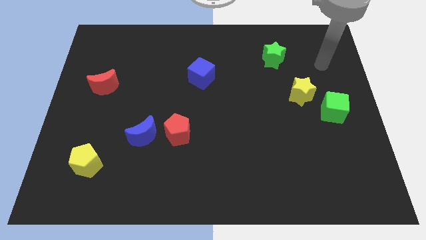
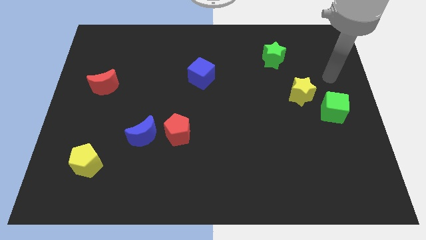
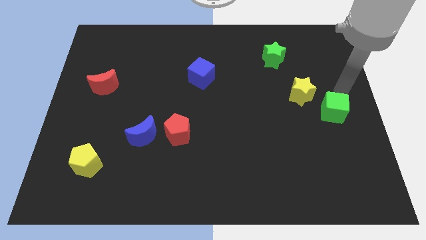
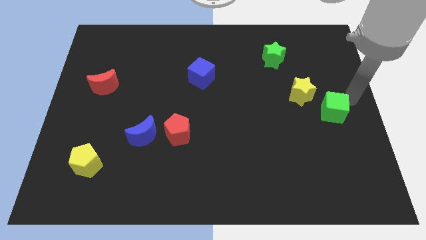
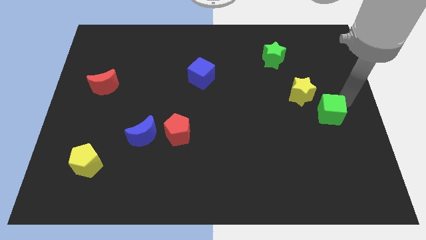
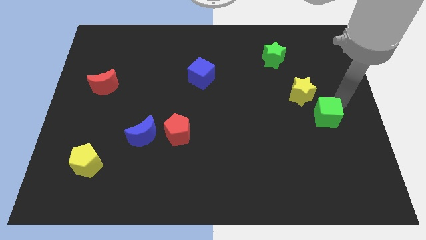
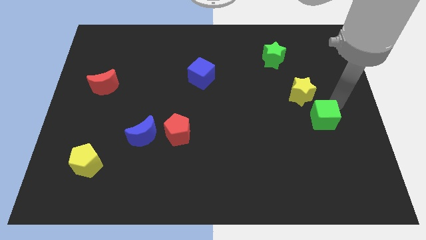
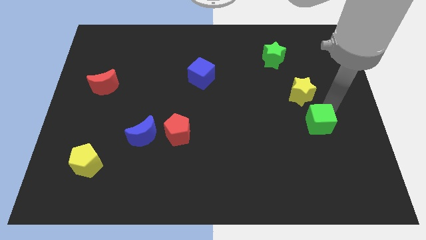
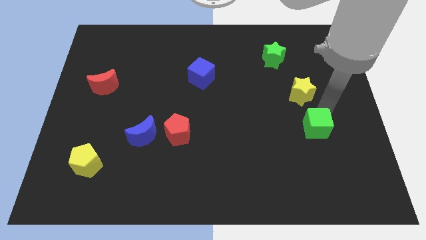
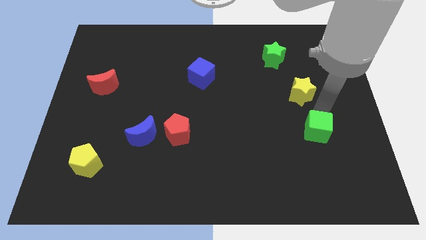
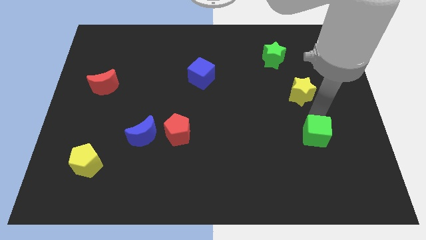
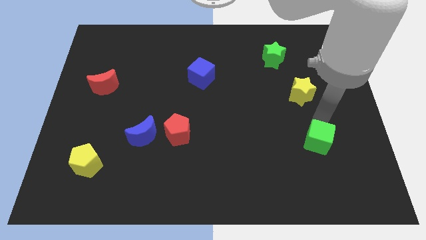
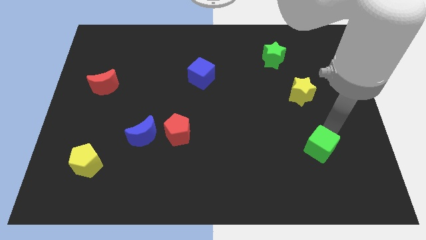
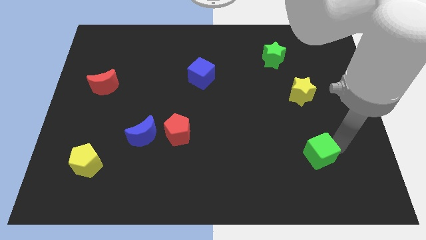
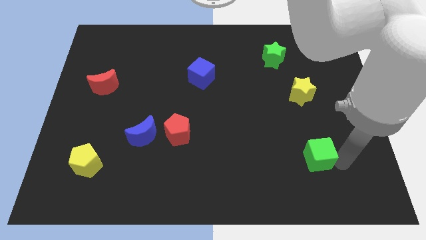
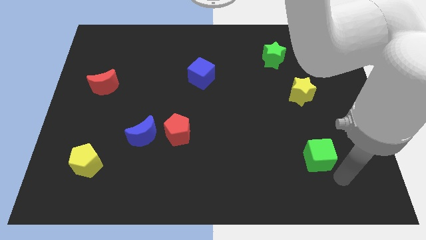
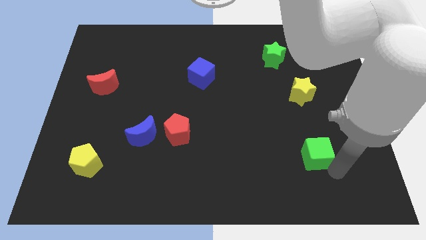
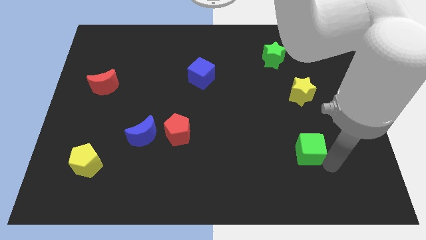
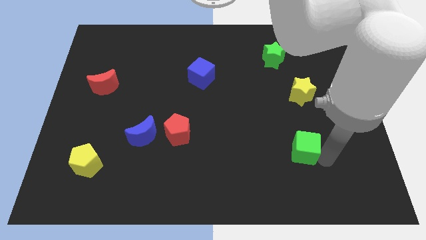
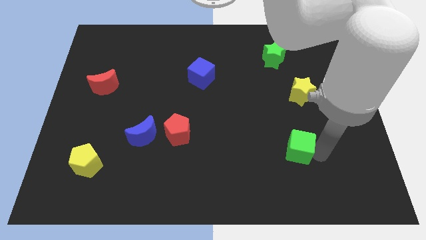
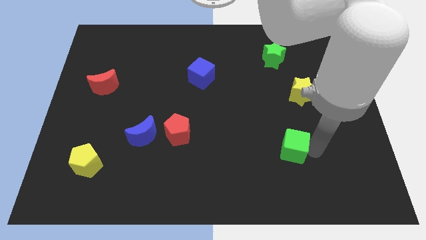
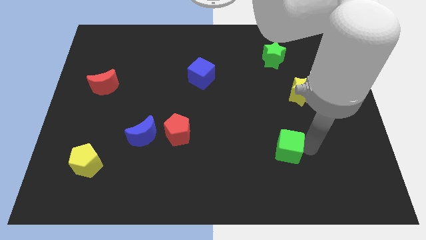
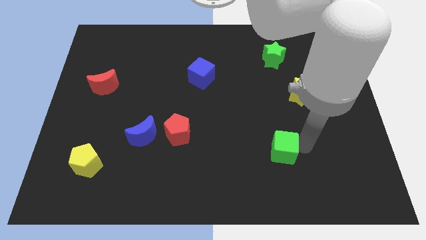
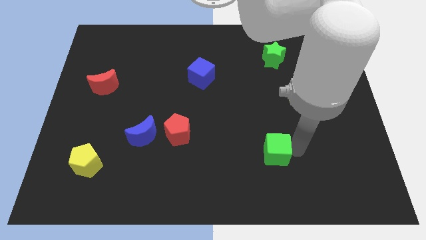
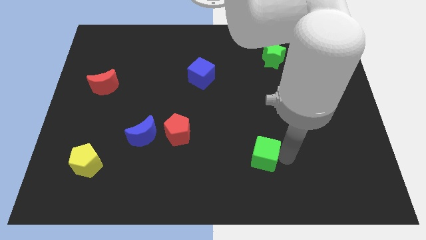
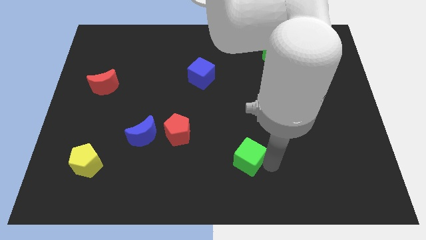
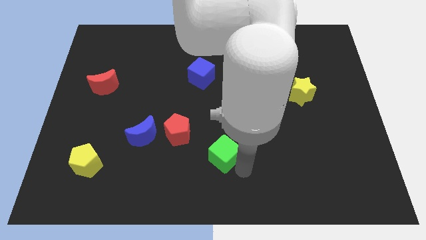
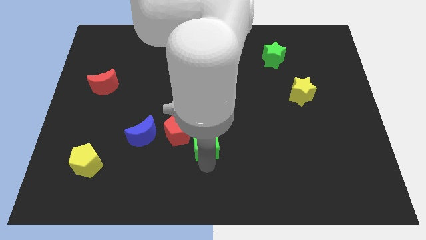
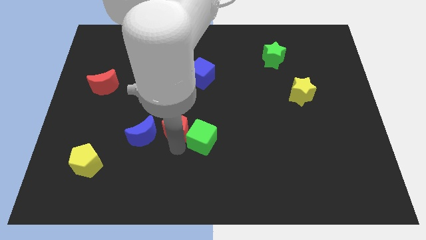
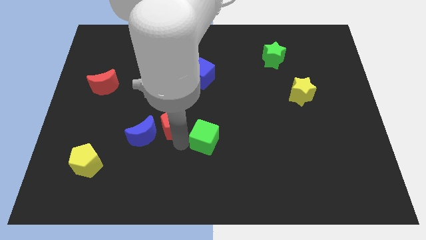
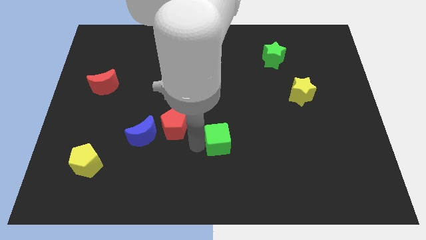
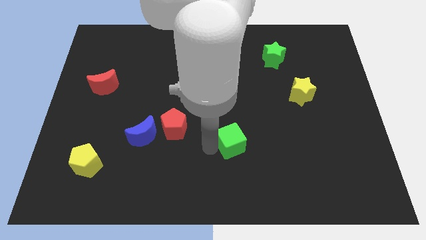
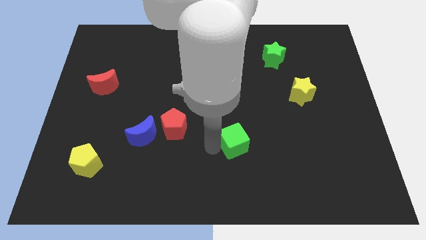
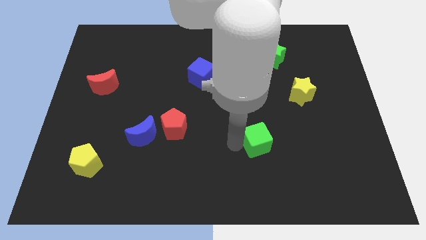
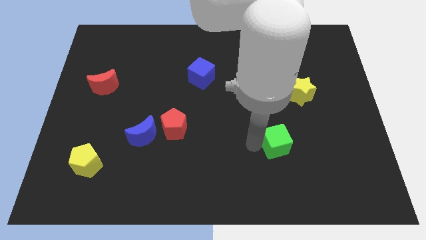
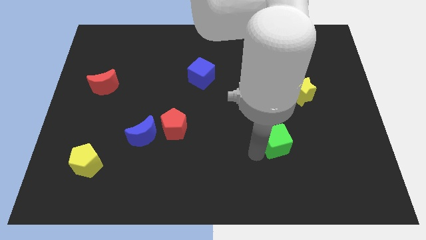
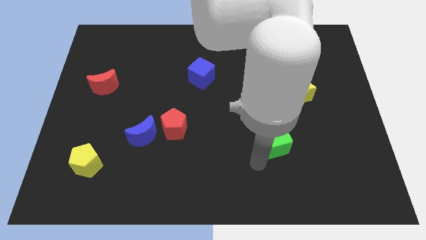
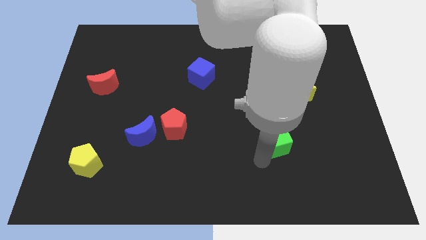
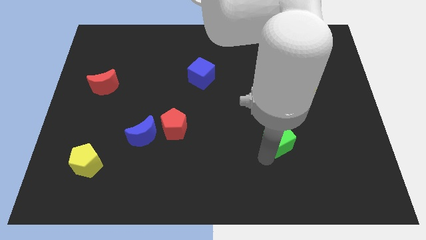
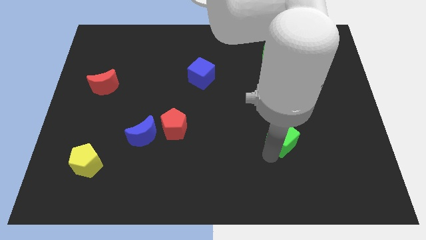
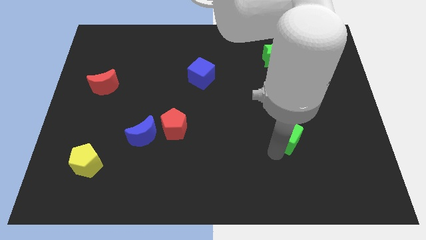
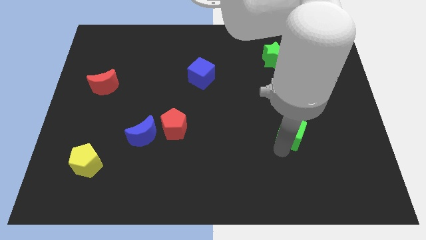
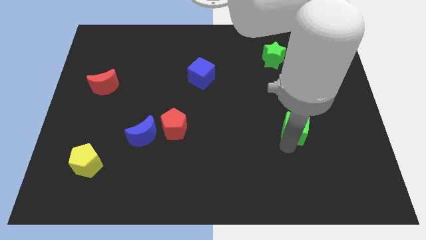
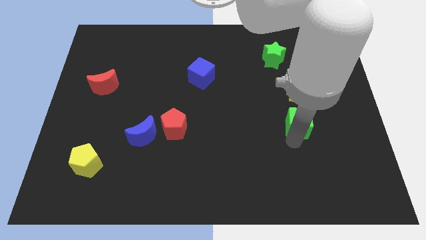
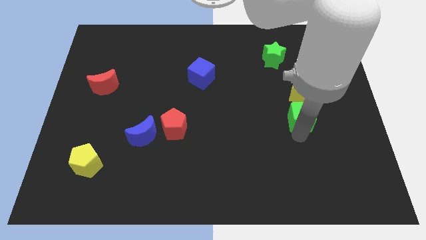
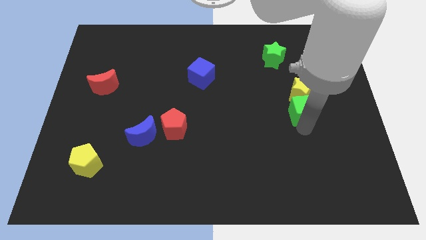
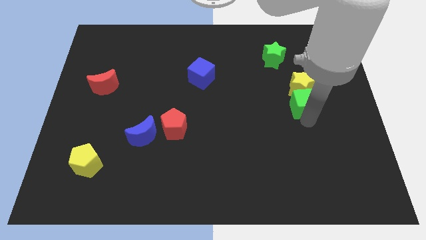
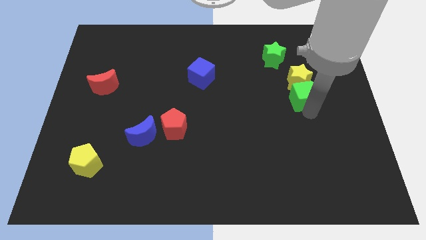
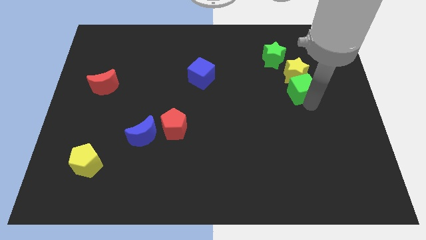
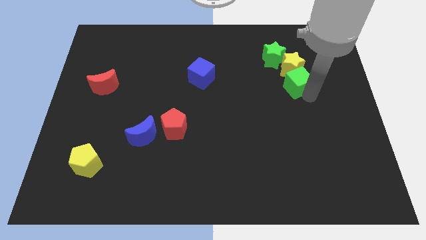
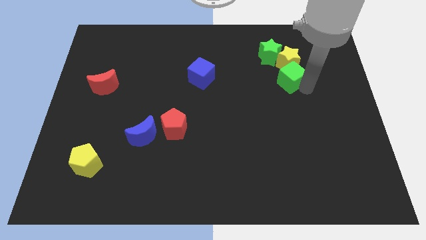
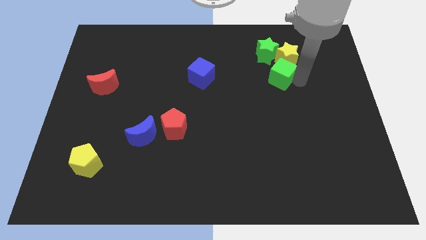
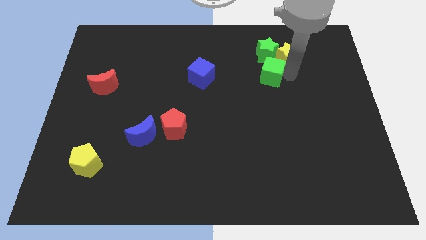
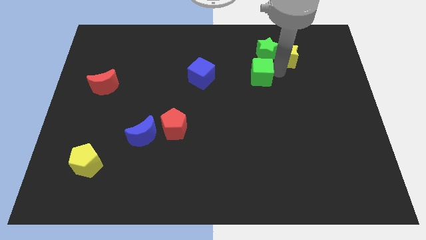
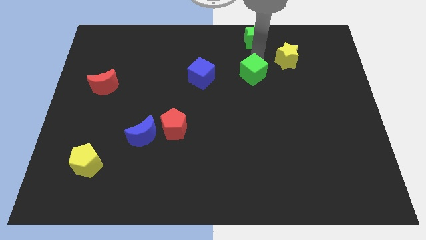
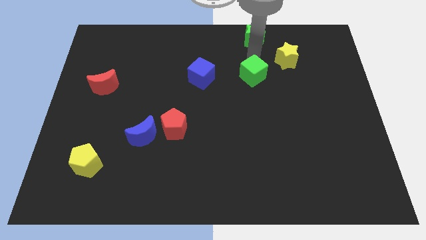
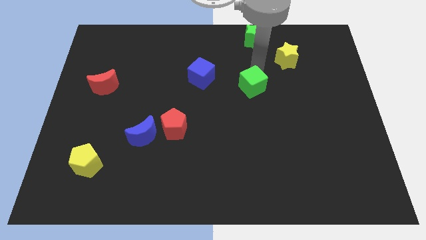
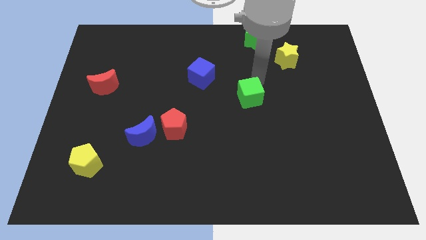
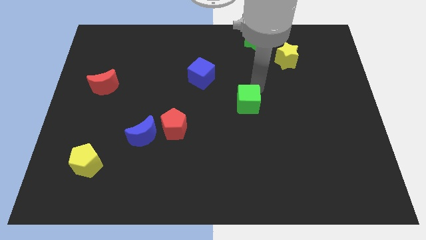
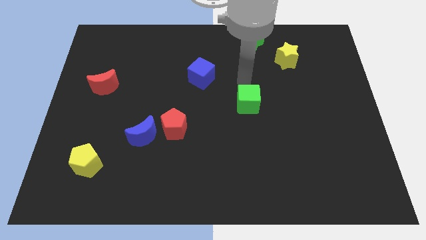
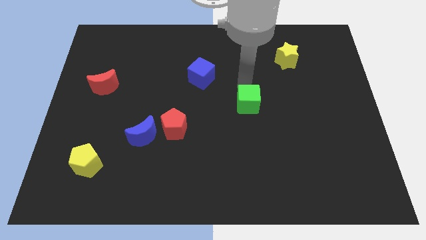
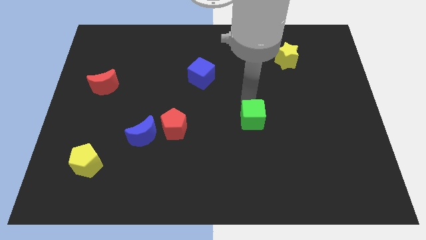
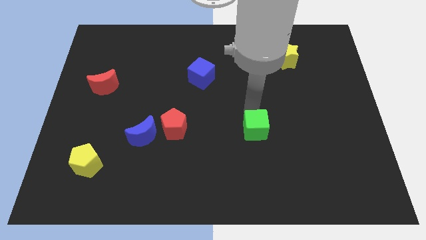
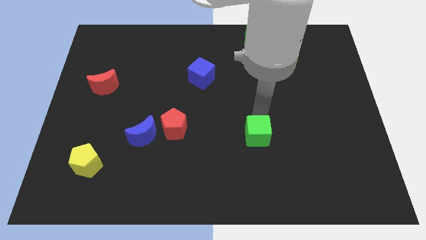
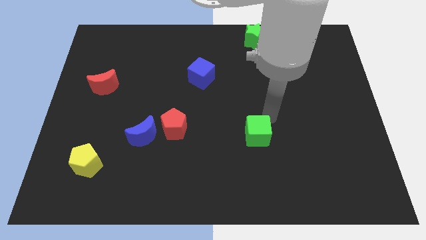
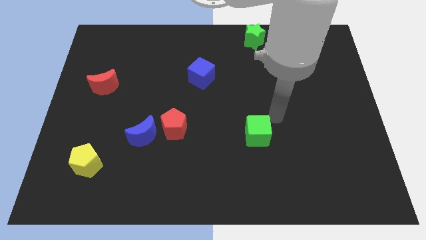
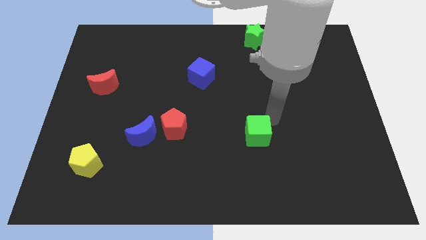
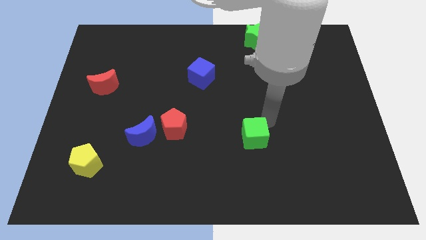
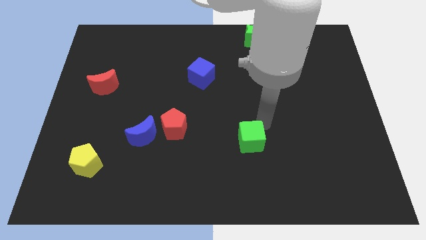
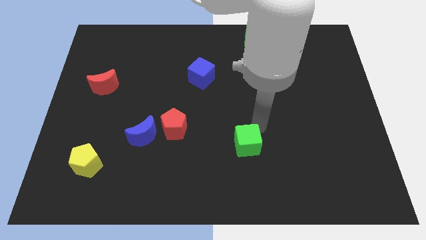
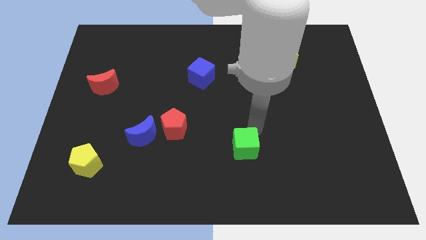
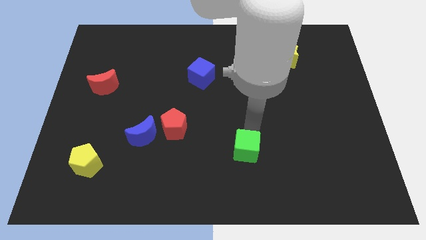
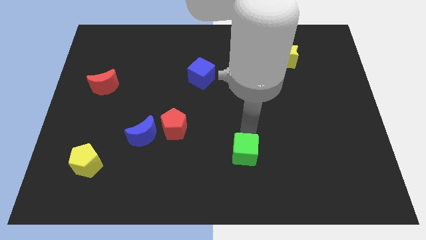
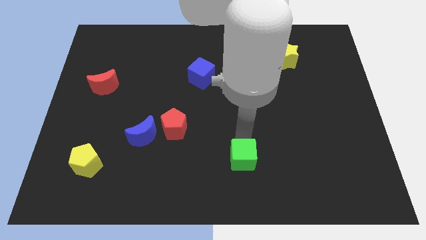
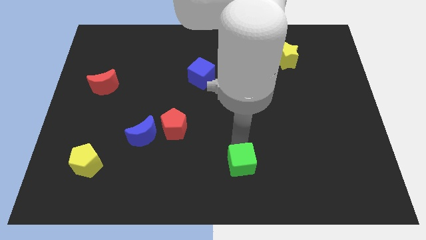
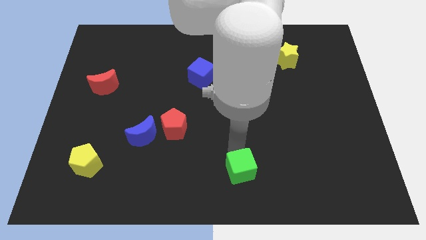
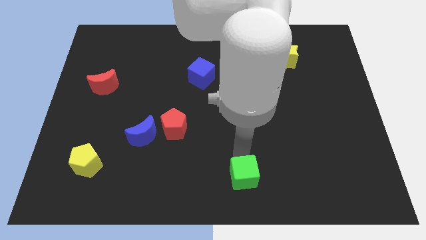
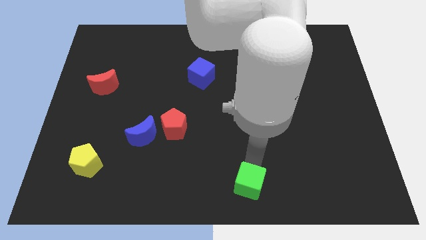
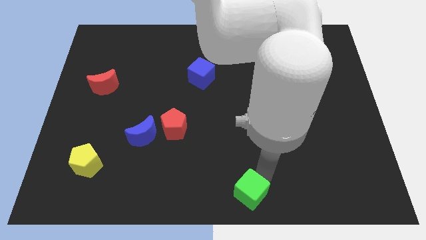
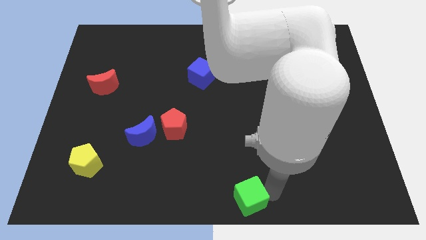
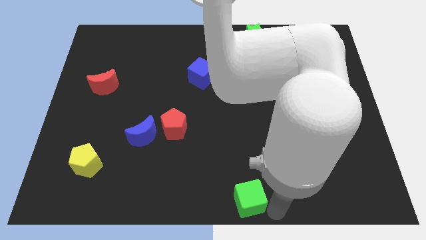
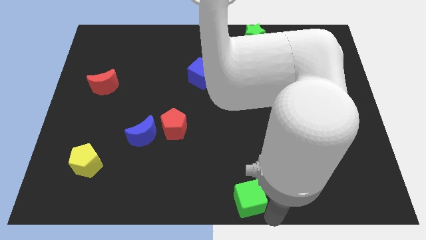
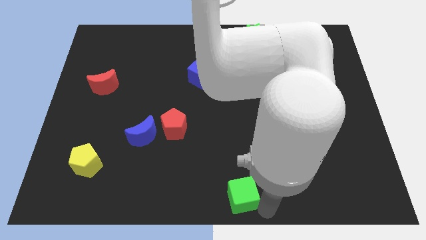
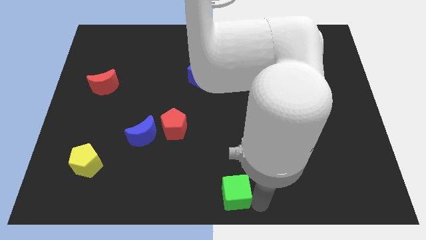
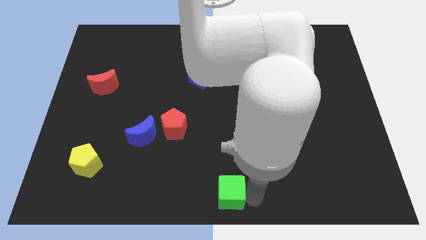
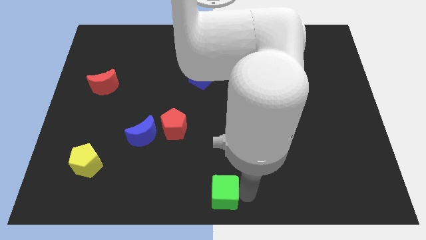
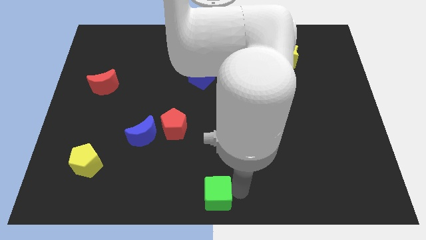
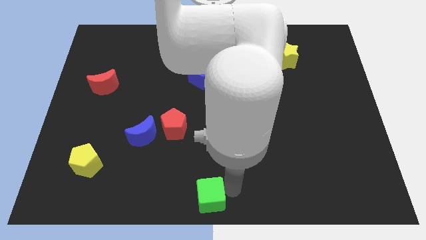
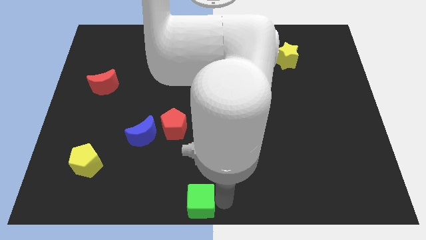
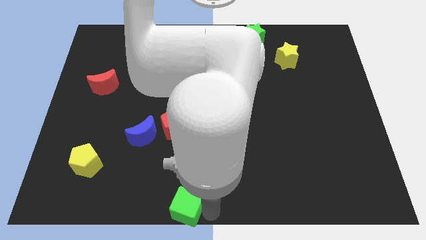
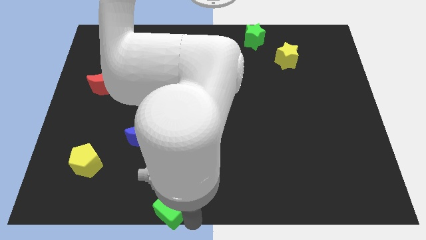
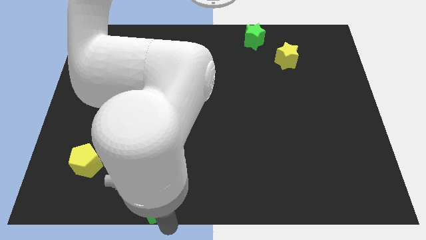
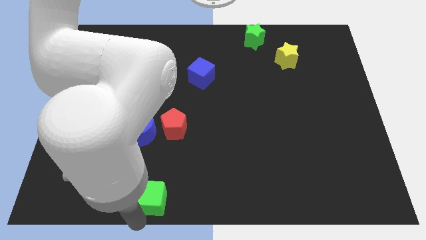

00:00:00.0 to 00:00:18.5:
push the green cube below the blue moon
